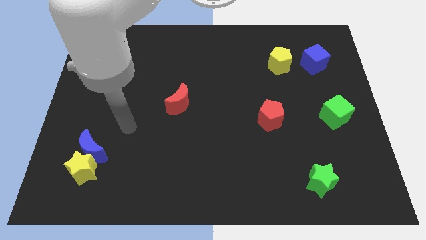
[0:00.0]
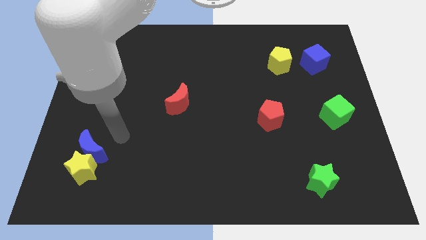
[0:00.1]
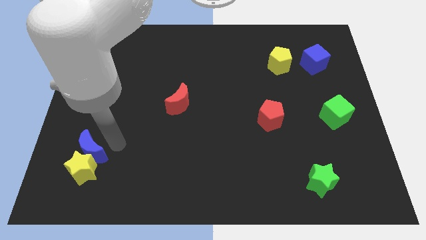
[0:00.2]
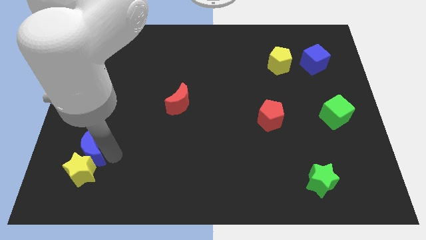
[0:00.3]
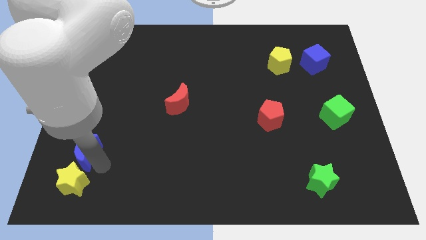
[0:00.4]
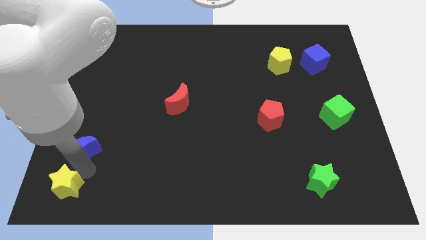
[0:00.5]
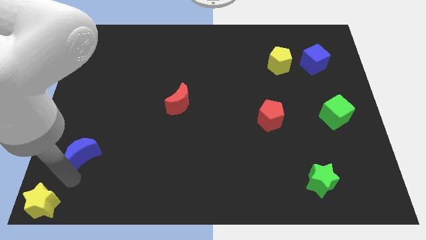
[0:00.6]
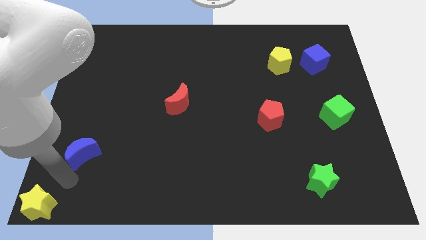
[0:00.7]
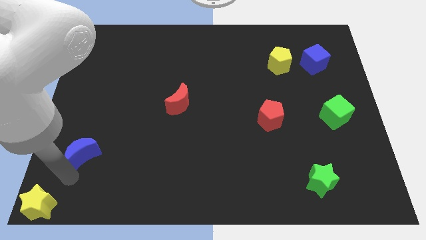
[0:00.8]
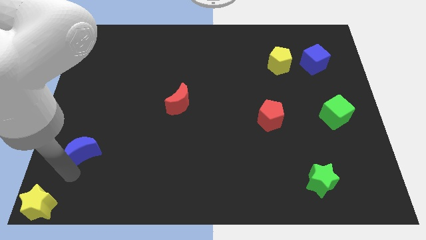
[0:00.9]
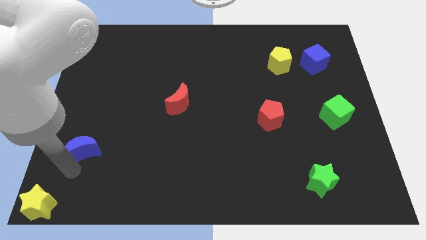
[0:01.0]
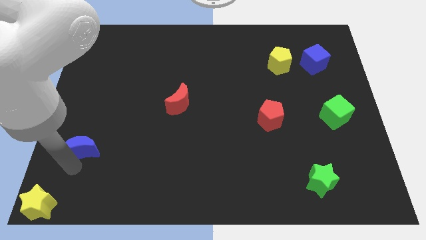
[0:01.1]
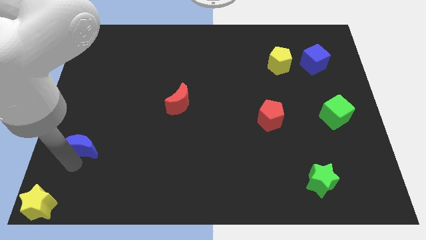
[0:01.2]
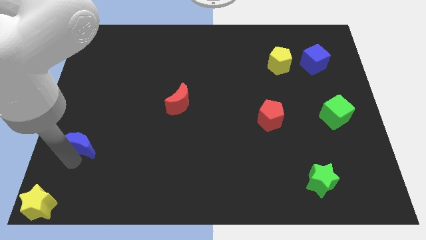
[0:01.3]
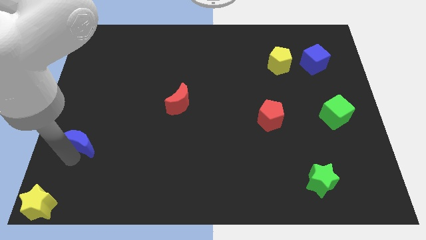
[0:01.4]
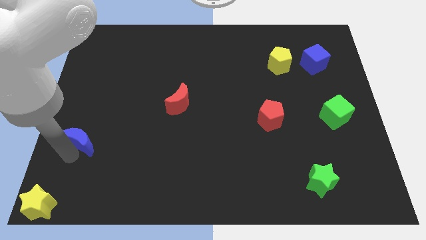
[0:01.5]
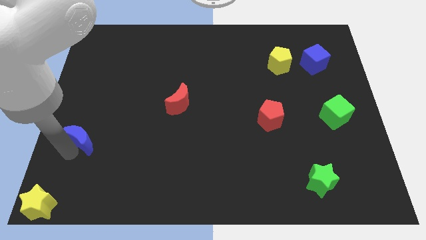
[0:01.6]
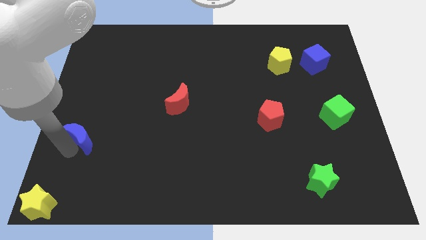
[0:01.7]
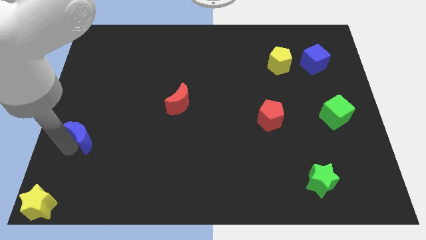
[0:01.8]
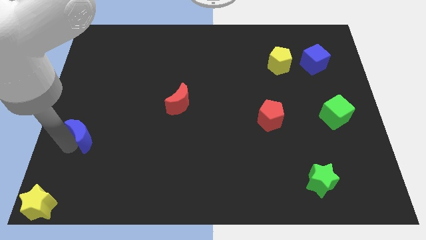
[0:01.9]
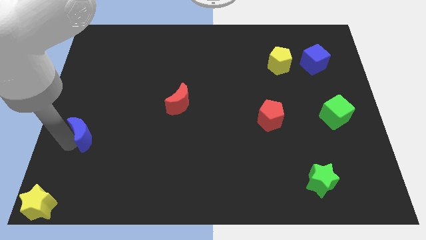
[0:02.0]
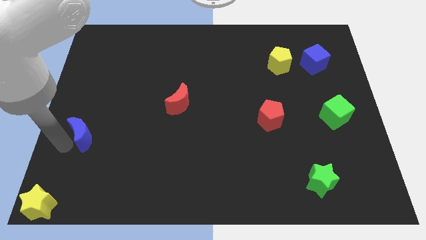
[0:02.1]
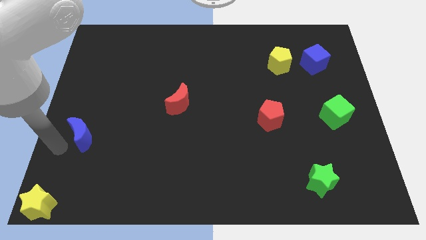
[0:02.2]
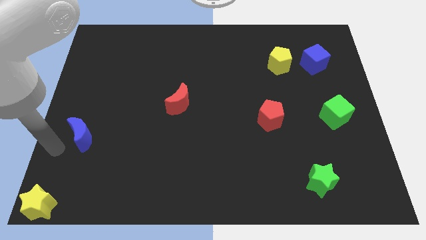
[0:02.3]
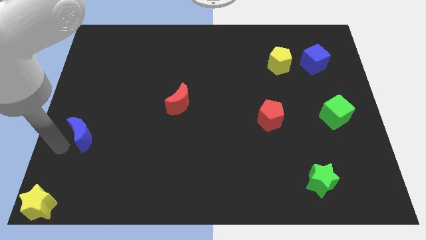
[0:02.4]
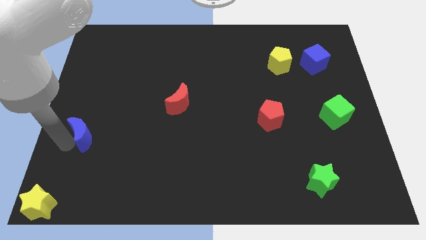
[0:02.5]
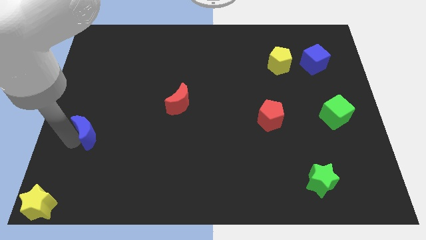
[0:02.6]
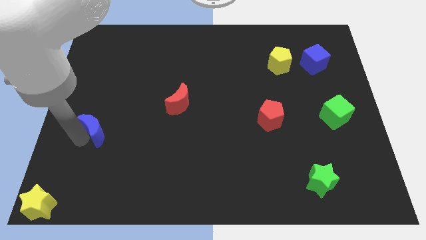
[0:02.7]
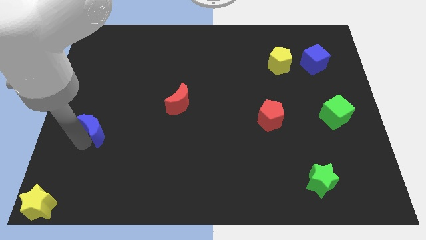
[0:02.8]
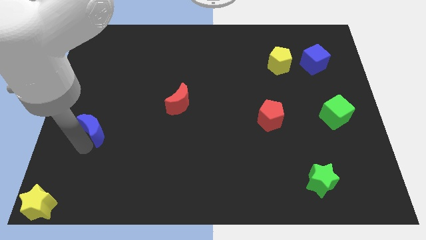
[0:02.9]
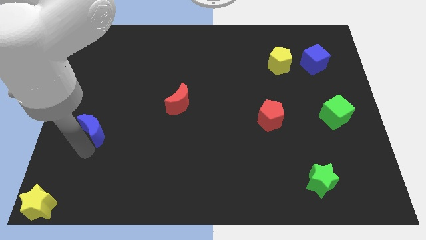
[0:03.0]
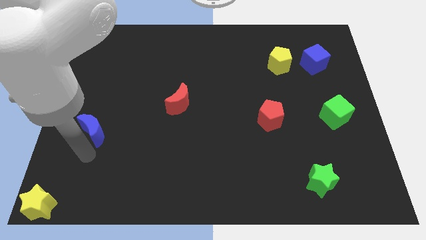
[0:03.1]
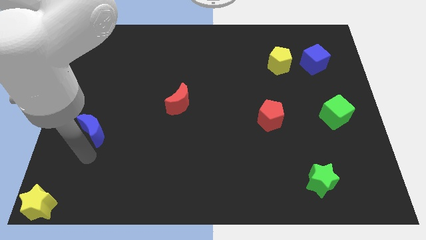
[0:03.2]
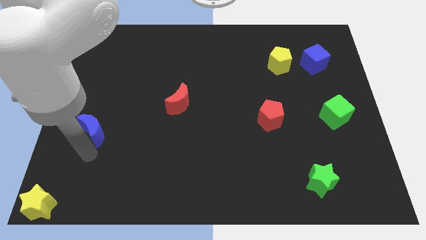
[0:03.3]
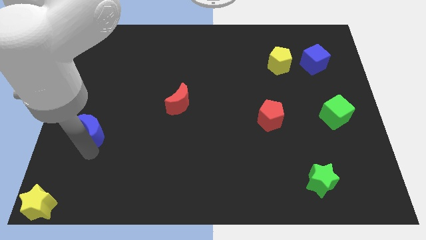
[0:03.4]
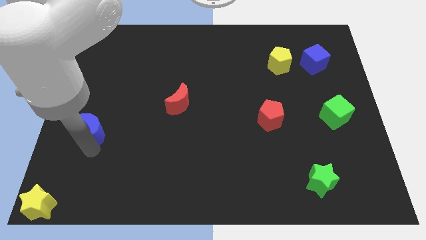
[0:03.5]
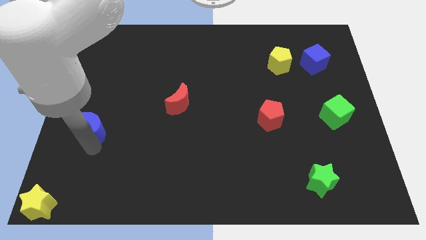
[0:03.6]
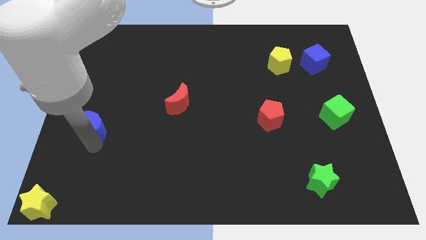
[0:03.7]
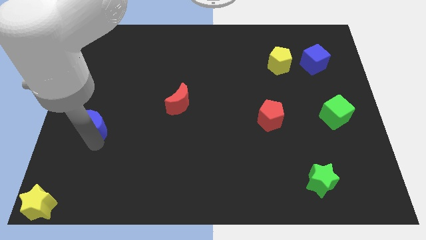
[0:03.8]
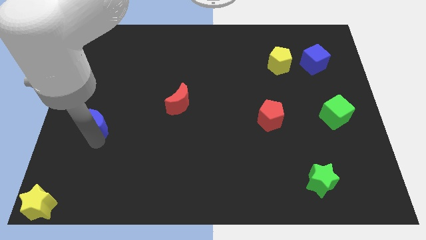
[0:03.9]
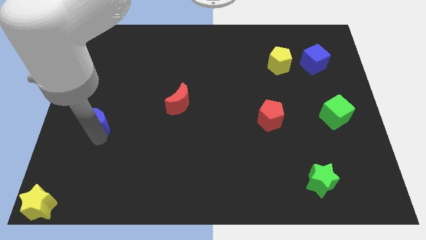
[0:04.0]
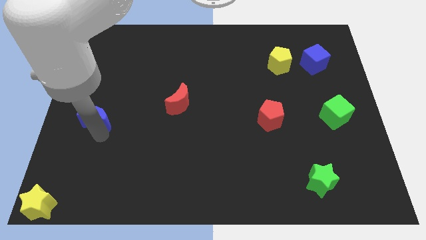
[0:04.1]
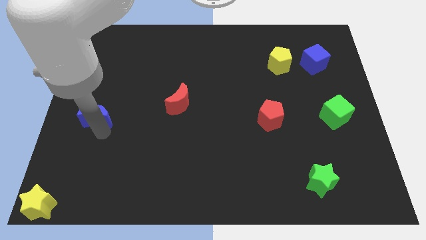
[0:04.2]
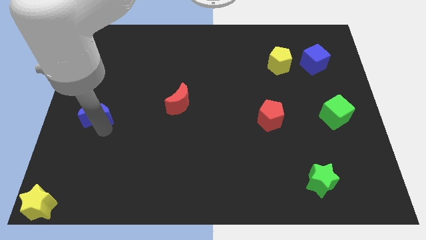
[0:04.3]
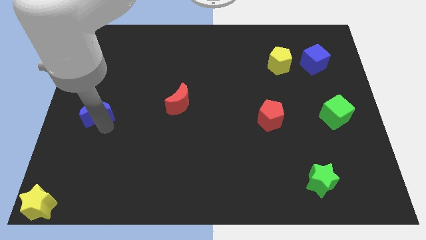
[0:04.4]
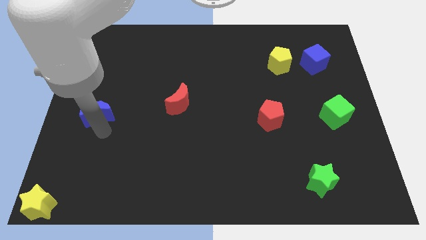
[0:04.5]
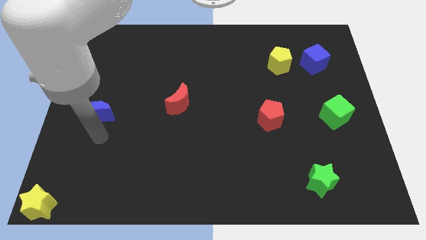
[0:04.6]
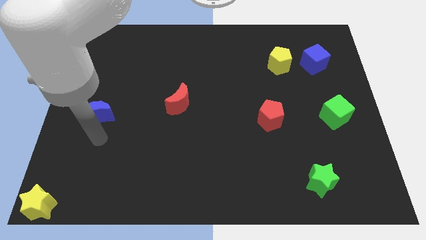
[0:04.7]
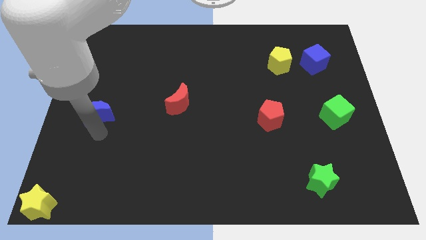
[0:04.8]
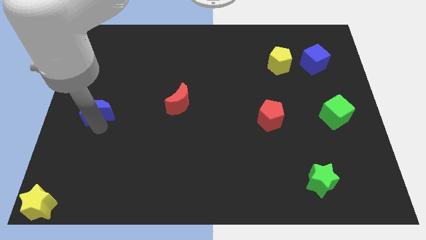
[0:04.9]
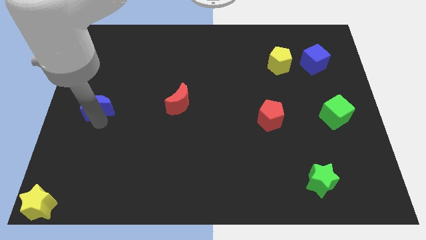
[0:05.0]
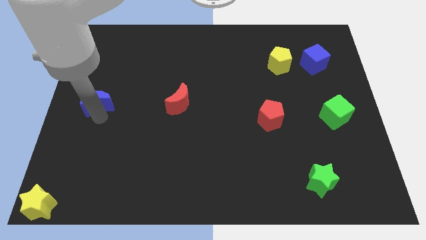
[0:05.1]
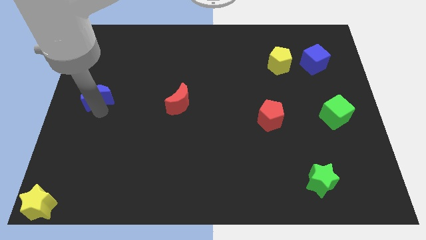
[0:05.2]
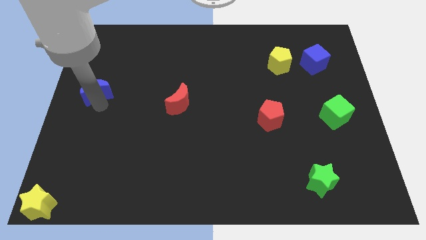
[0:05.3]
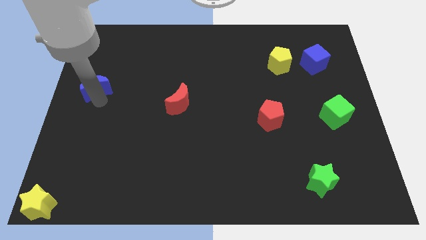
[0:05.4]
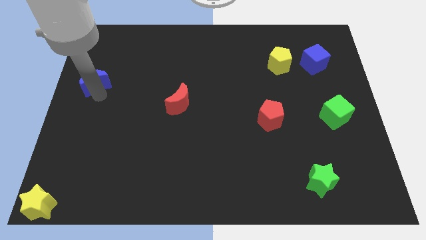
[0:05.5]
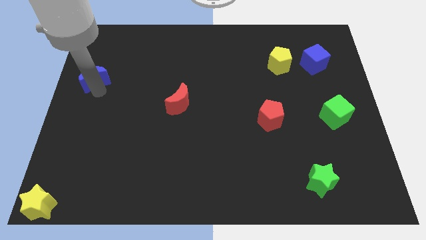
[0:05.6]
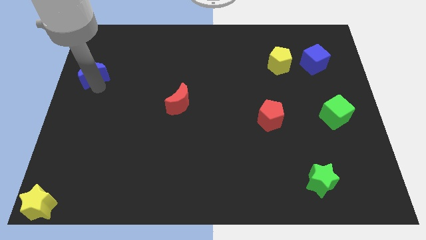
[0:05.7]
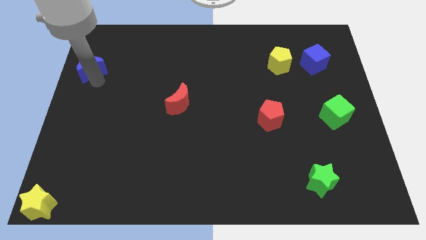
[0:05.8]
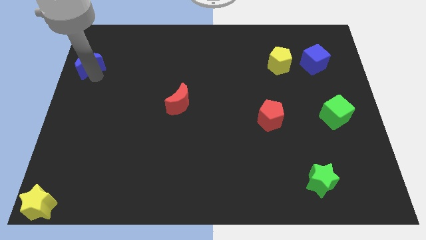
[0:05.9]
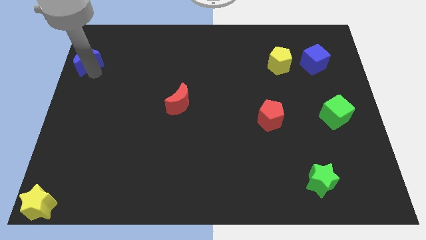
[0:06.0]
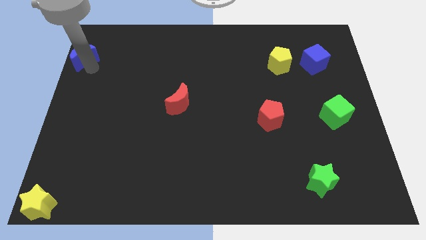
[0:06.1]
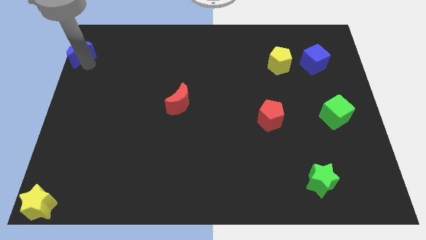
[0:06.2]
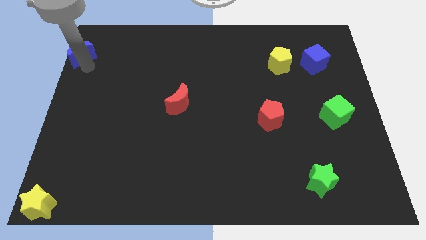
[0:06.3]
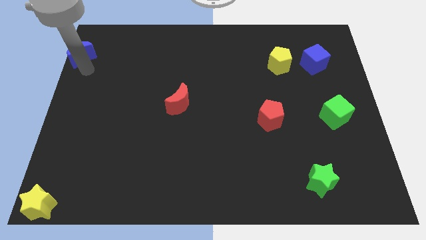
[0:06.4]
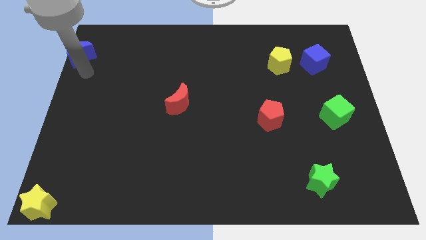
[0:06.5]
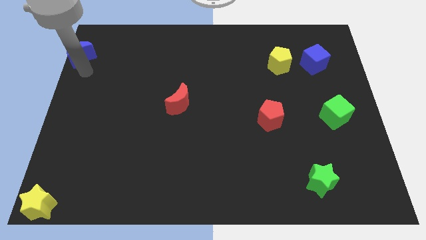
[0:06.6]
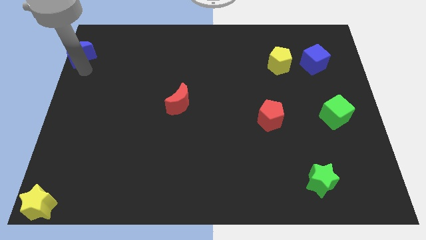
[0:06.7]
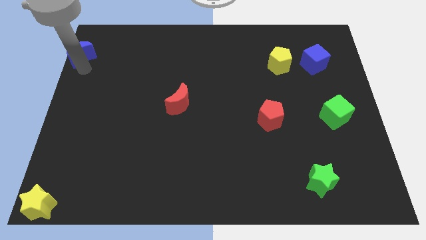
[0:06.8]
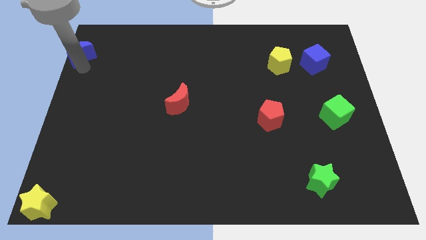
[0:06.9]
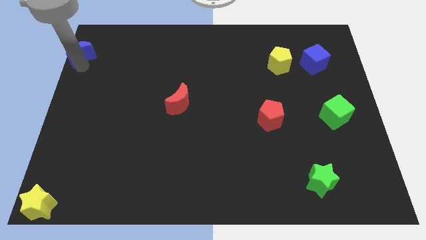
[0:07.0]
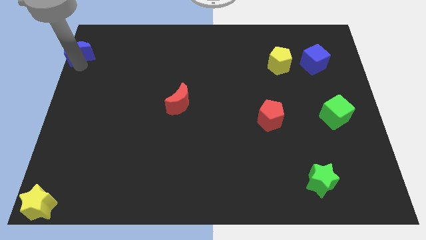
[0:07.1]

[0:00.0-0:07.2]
push the blue moon to the top left
